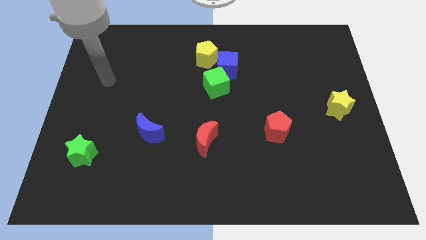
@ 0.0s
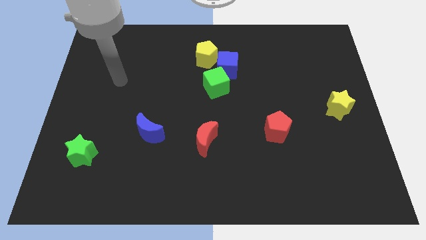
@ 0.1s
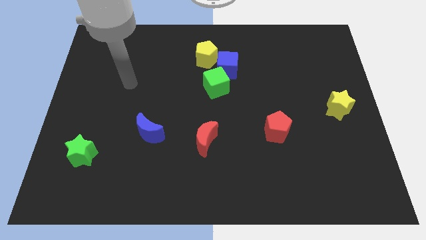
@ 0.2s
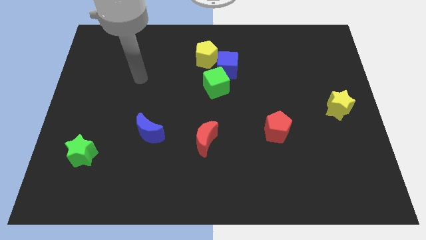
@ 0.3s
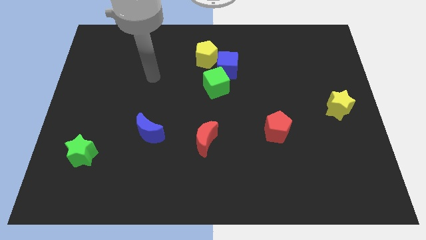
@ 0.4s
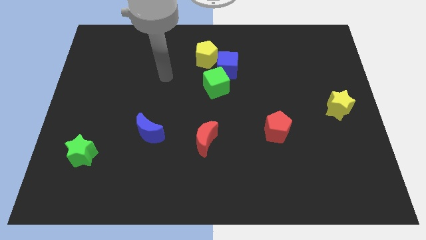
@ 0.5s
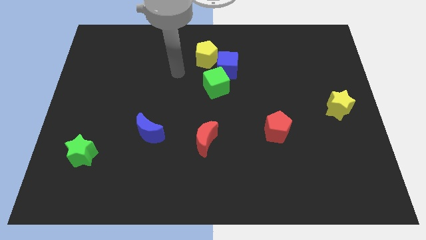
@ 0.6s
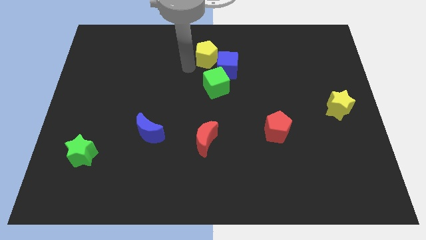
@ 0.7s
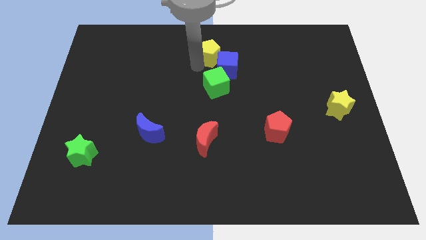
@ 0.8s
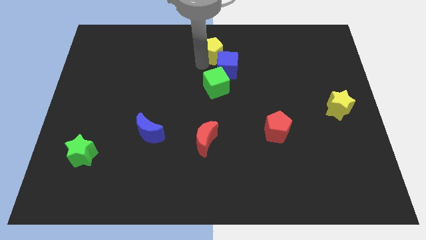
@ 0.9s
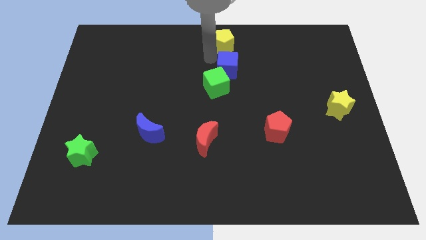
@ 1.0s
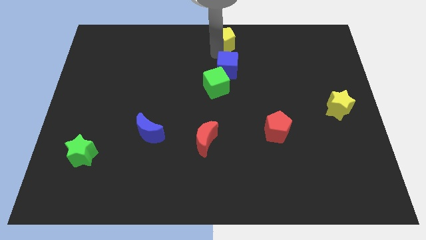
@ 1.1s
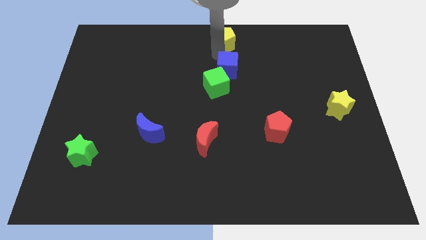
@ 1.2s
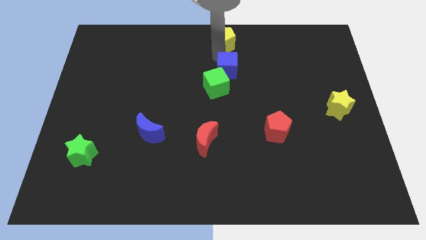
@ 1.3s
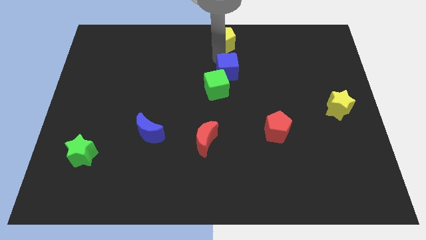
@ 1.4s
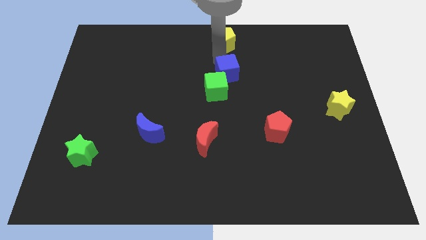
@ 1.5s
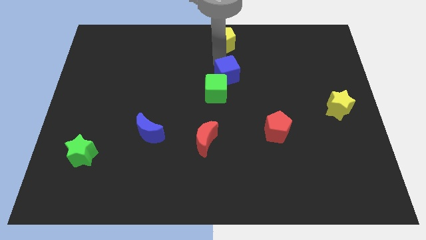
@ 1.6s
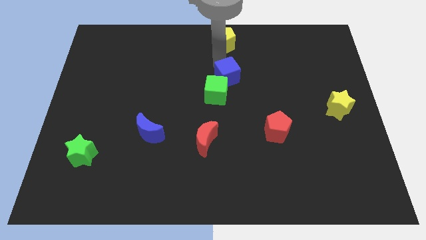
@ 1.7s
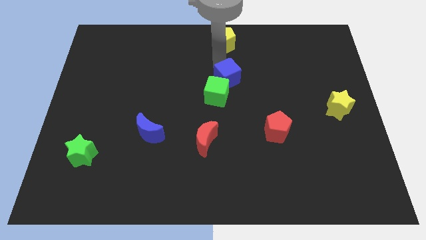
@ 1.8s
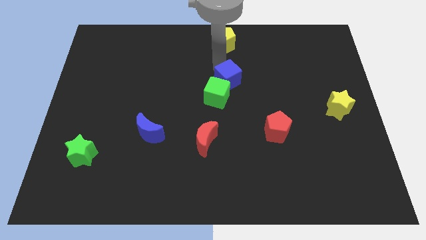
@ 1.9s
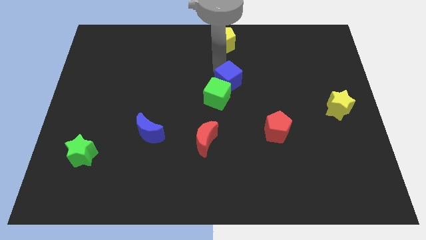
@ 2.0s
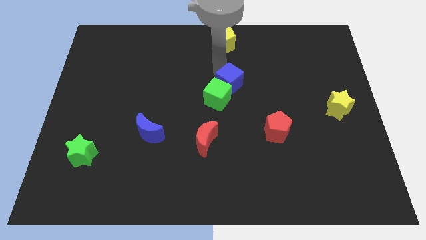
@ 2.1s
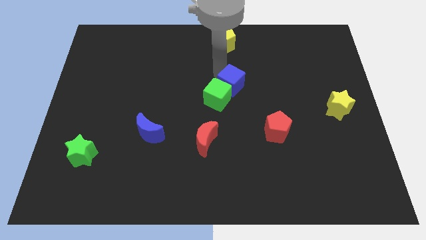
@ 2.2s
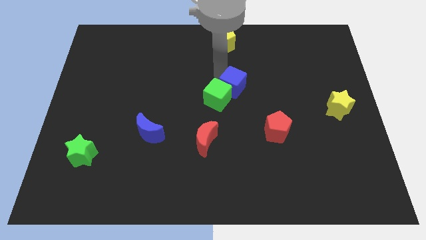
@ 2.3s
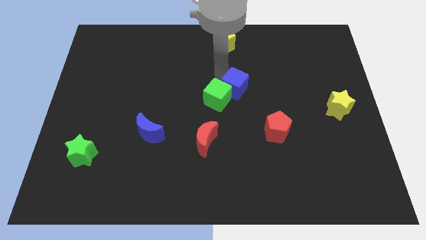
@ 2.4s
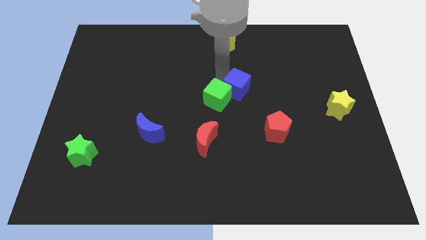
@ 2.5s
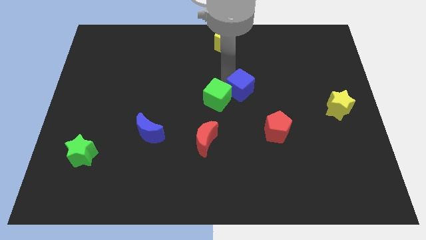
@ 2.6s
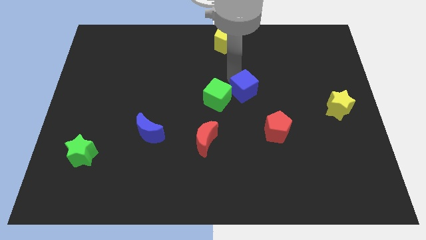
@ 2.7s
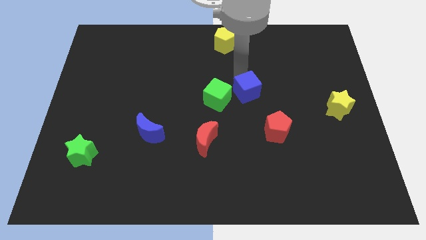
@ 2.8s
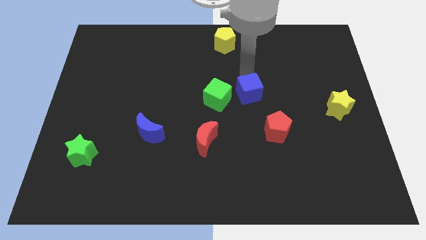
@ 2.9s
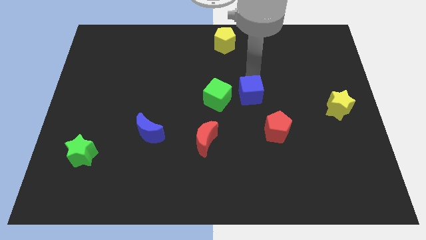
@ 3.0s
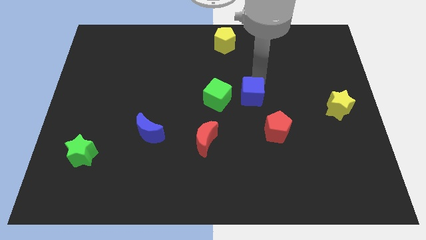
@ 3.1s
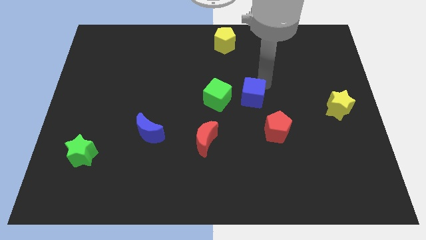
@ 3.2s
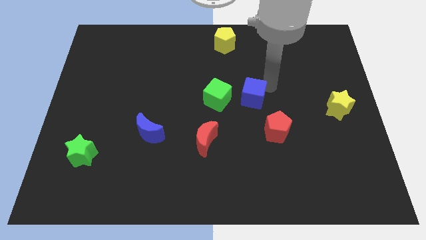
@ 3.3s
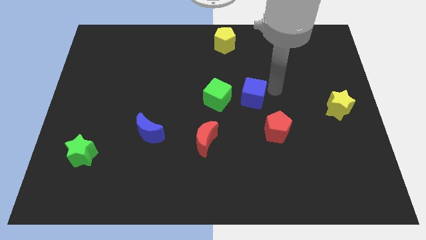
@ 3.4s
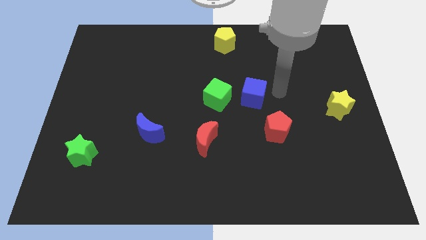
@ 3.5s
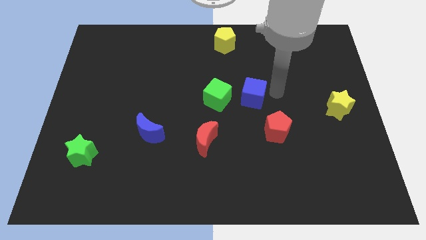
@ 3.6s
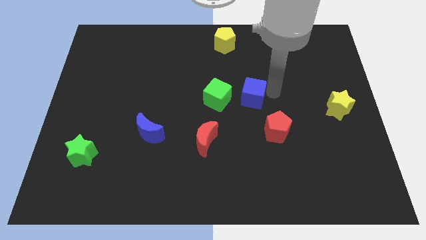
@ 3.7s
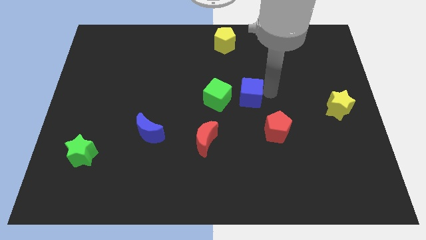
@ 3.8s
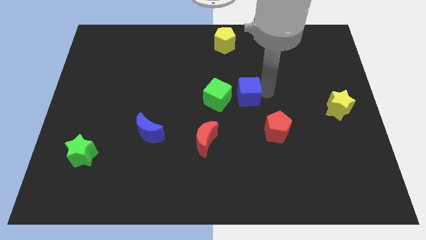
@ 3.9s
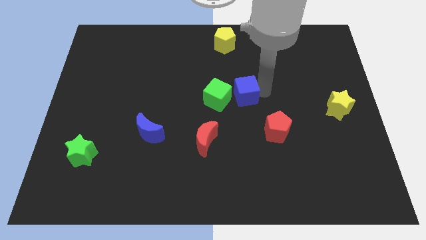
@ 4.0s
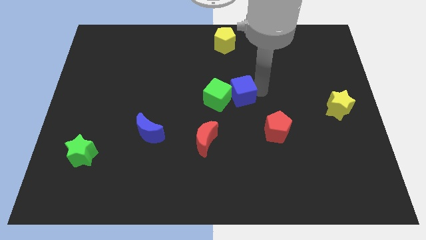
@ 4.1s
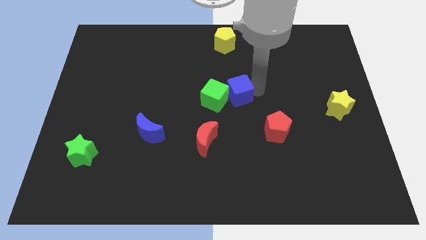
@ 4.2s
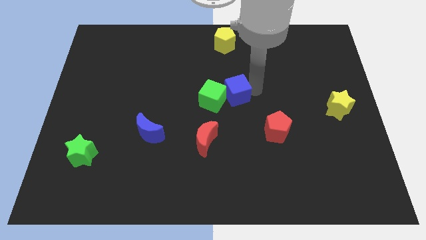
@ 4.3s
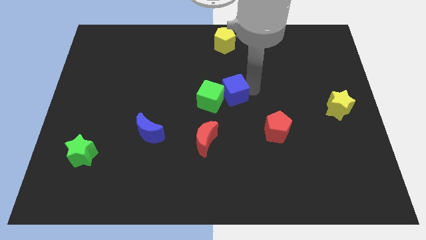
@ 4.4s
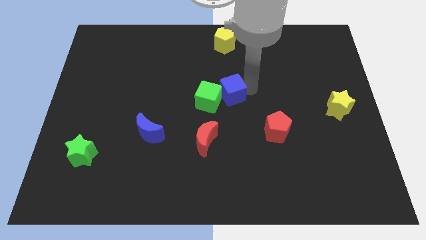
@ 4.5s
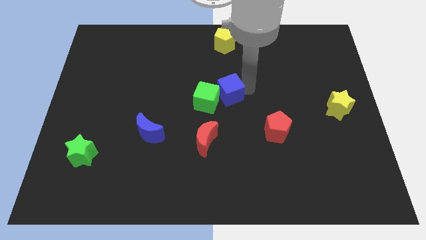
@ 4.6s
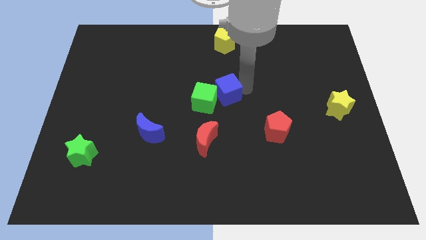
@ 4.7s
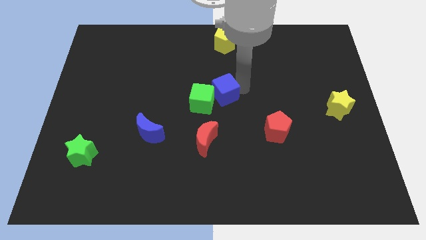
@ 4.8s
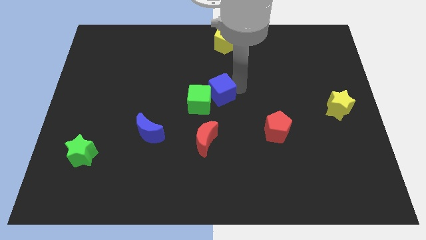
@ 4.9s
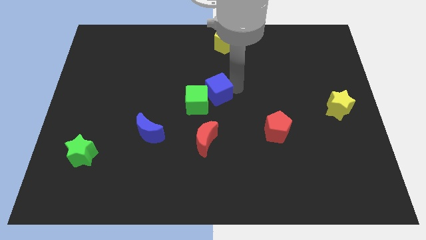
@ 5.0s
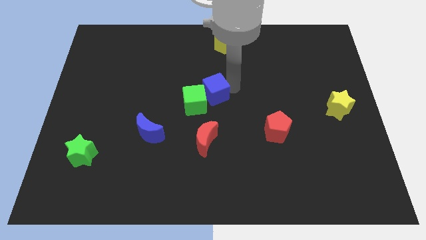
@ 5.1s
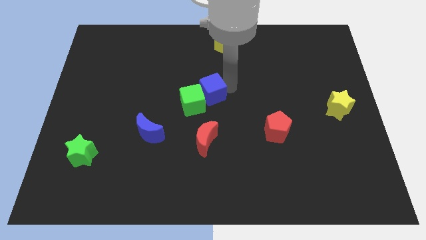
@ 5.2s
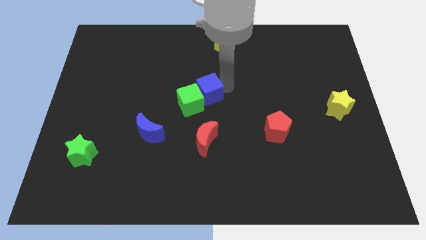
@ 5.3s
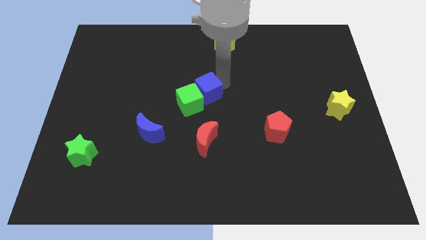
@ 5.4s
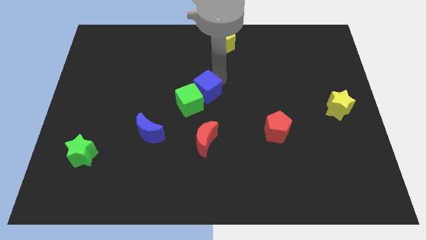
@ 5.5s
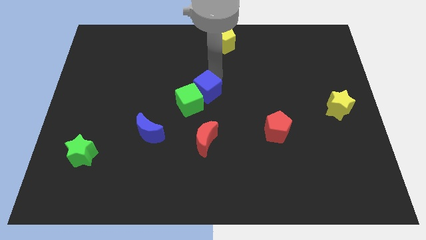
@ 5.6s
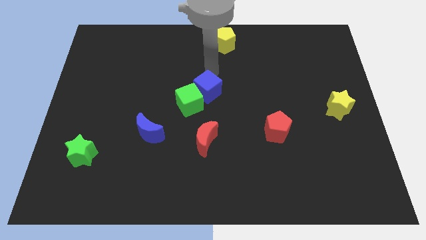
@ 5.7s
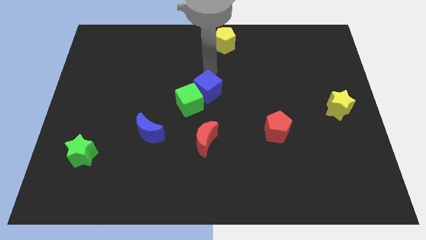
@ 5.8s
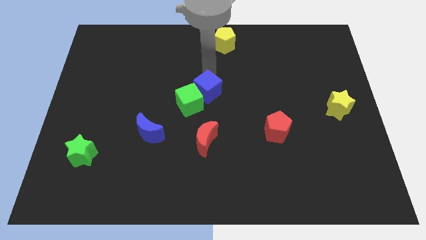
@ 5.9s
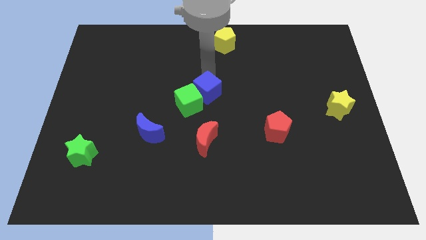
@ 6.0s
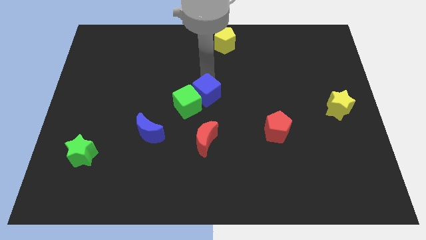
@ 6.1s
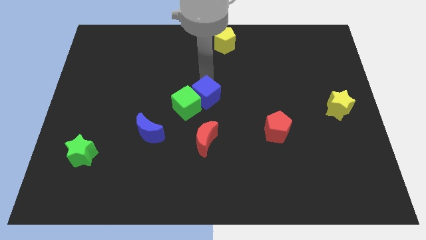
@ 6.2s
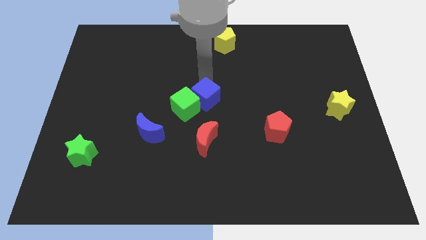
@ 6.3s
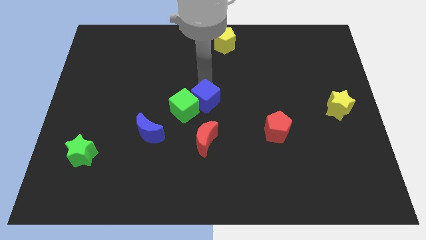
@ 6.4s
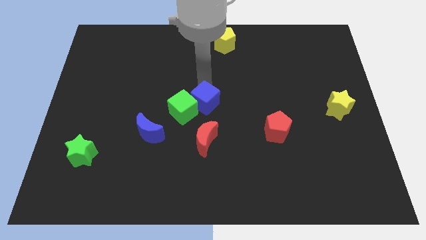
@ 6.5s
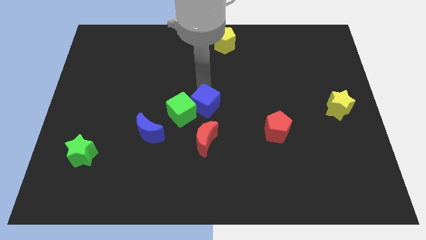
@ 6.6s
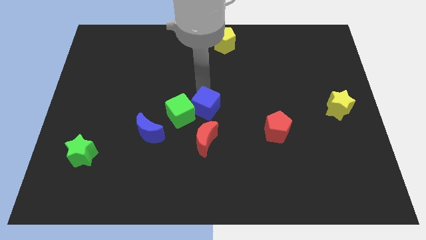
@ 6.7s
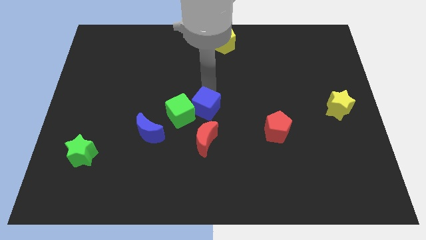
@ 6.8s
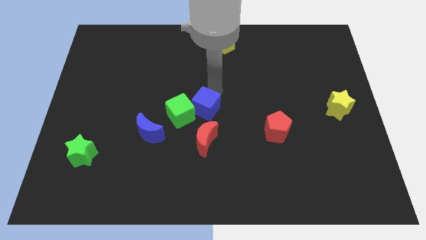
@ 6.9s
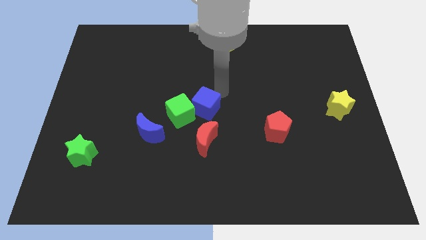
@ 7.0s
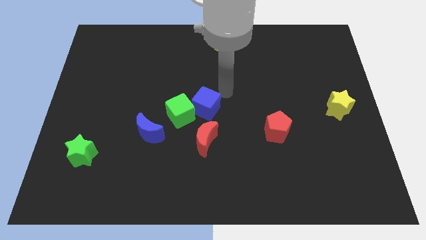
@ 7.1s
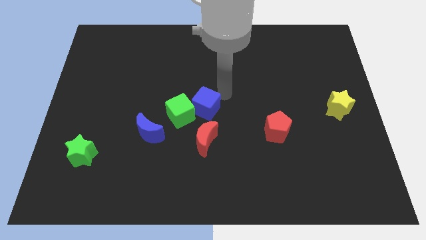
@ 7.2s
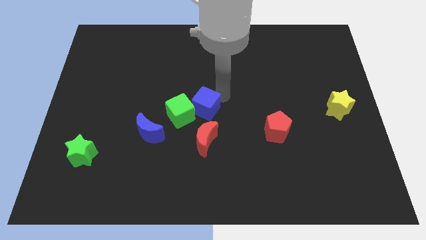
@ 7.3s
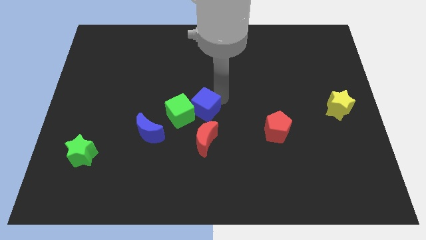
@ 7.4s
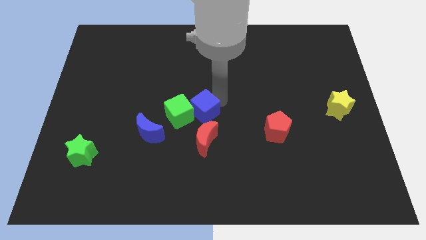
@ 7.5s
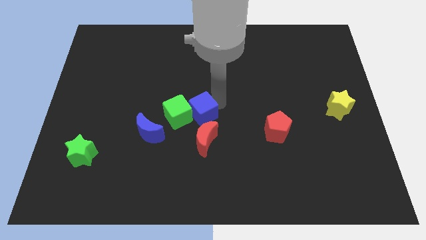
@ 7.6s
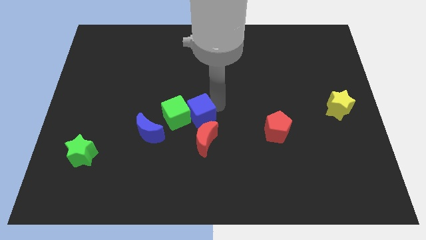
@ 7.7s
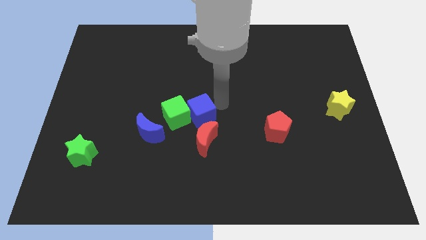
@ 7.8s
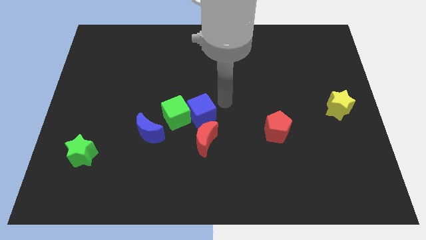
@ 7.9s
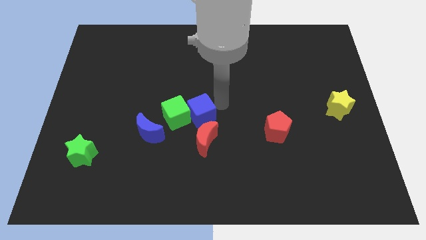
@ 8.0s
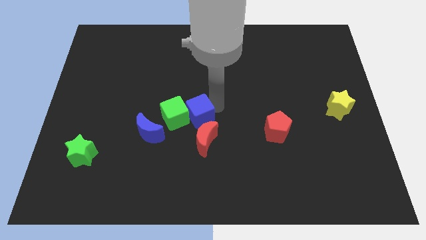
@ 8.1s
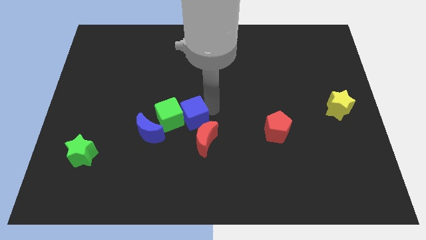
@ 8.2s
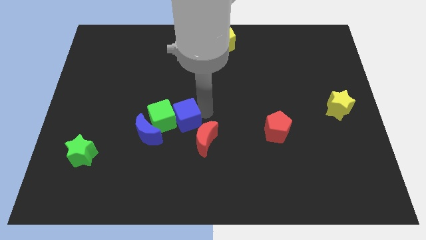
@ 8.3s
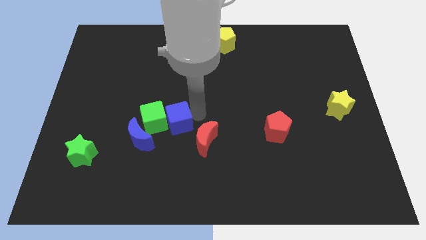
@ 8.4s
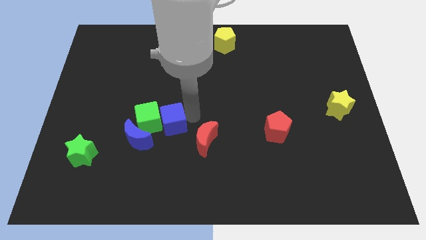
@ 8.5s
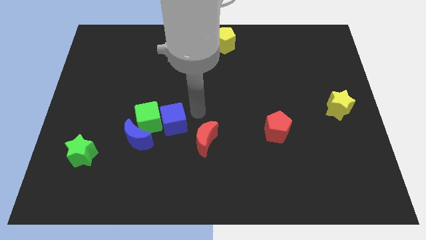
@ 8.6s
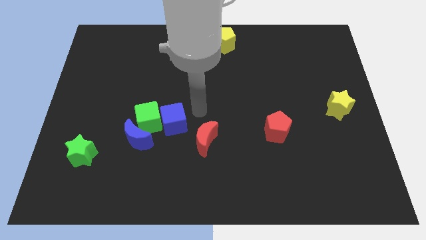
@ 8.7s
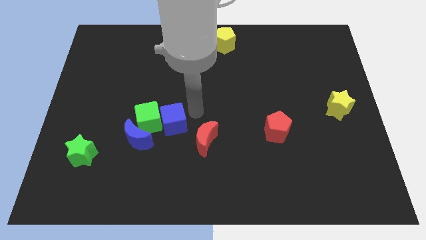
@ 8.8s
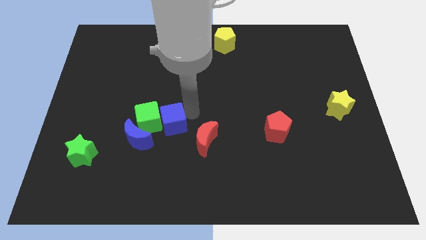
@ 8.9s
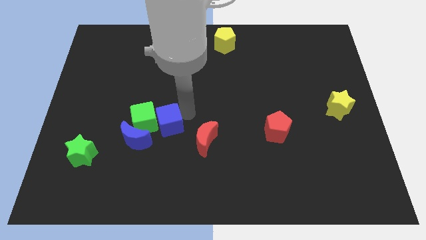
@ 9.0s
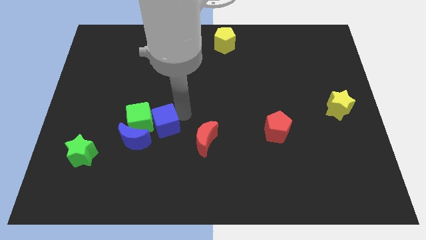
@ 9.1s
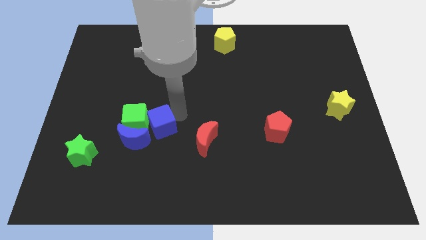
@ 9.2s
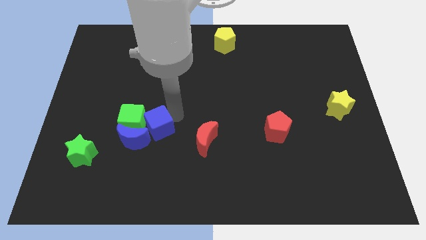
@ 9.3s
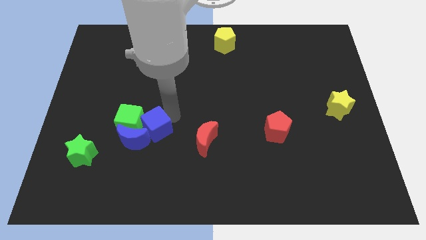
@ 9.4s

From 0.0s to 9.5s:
move the blue cube to the blue moon
